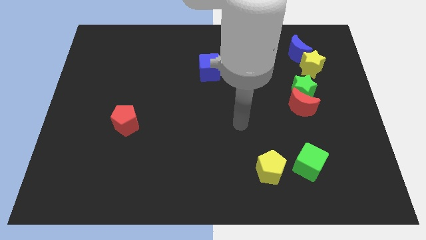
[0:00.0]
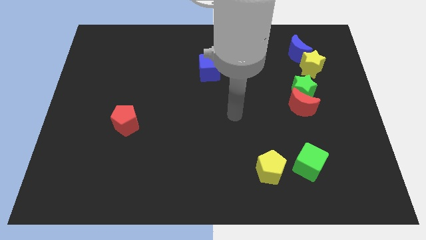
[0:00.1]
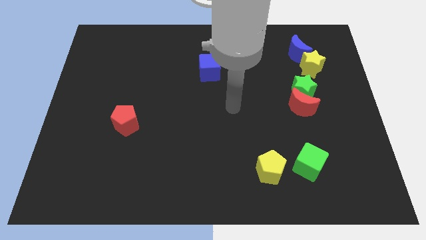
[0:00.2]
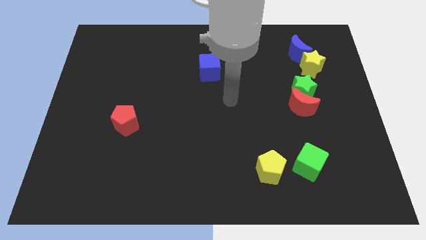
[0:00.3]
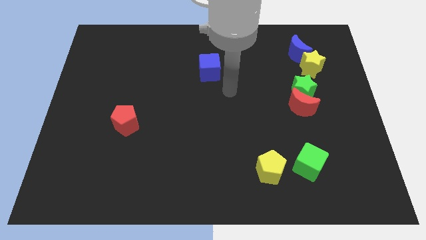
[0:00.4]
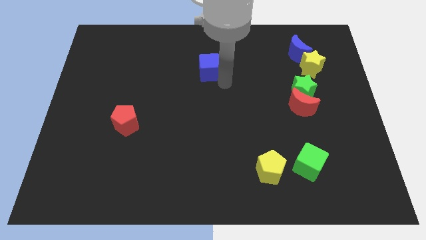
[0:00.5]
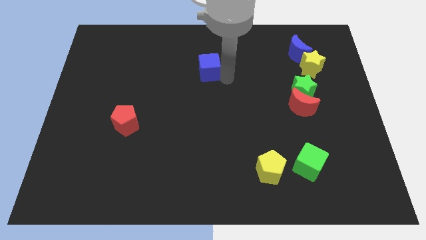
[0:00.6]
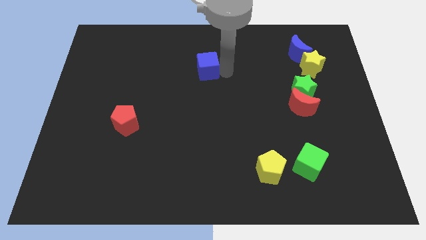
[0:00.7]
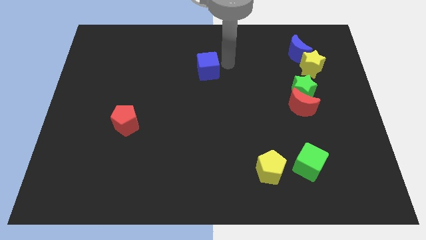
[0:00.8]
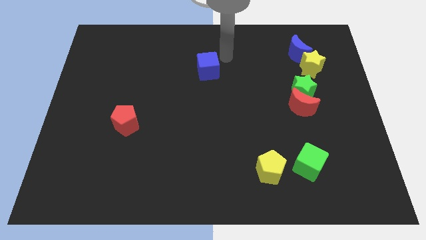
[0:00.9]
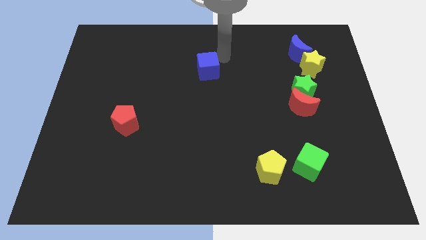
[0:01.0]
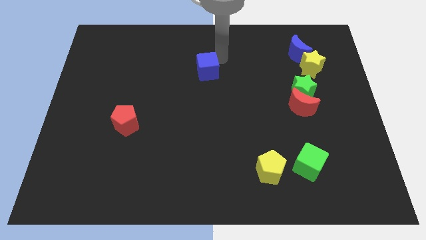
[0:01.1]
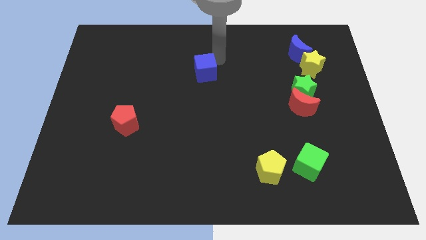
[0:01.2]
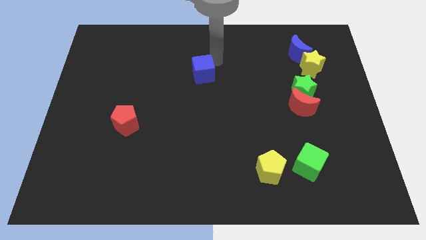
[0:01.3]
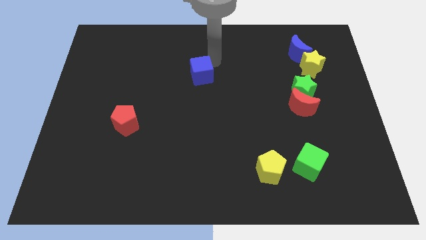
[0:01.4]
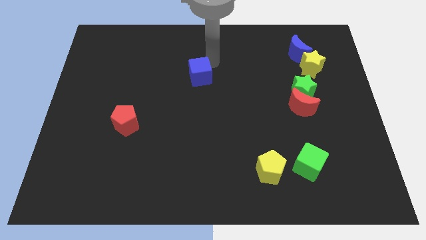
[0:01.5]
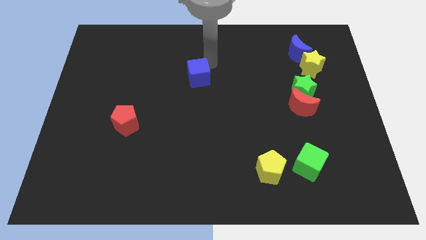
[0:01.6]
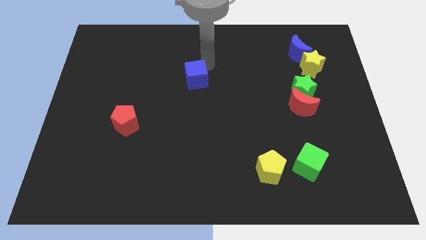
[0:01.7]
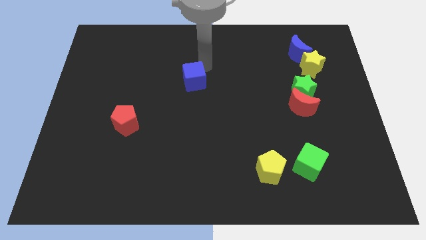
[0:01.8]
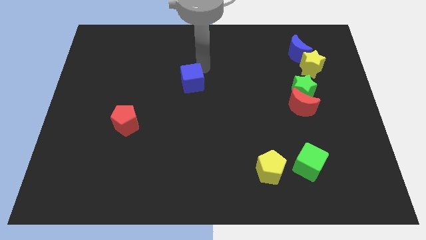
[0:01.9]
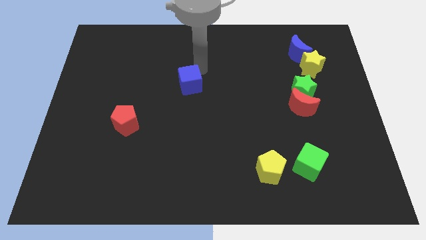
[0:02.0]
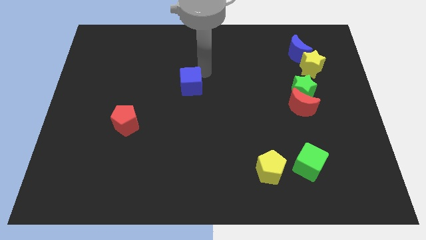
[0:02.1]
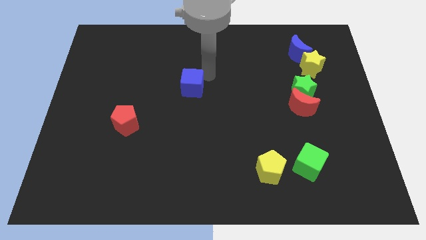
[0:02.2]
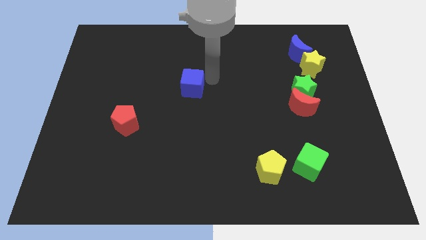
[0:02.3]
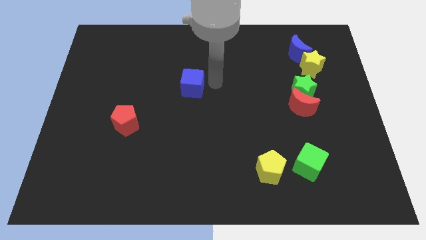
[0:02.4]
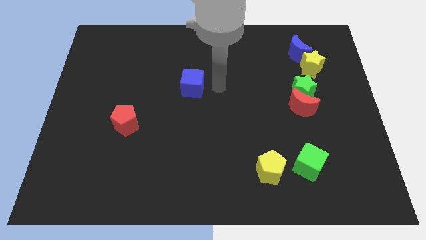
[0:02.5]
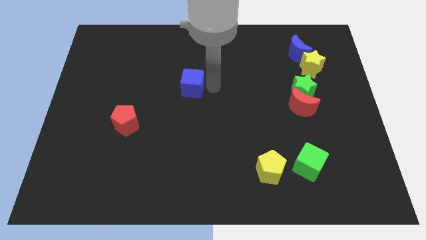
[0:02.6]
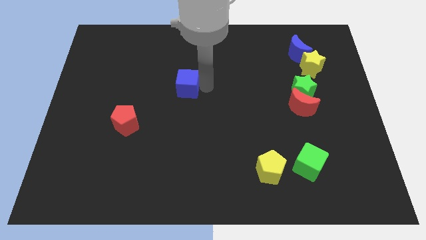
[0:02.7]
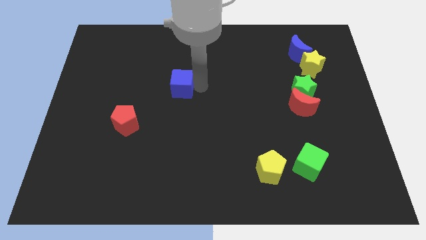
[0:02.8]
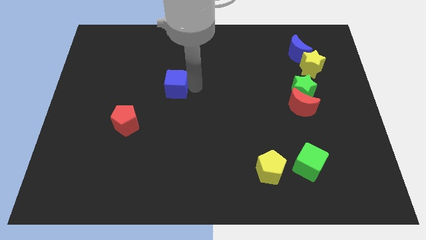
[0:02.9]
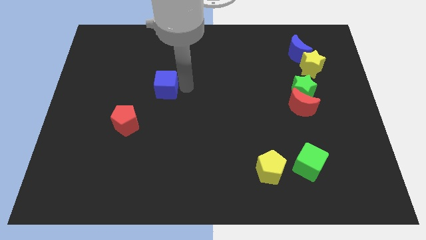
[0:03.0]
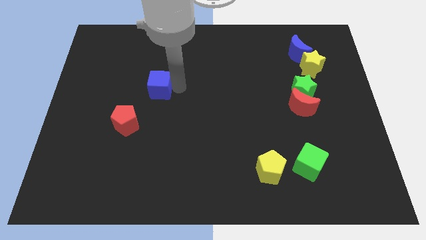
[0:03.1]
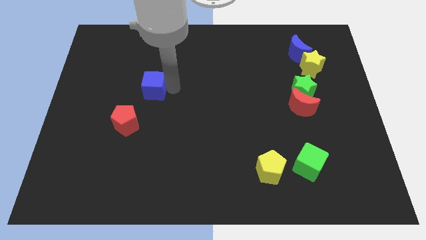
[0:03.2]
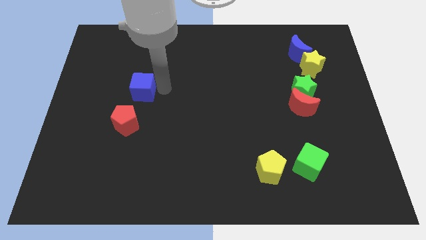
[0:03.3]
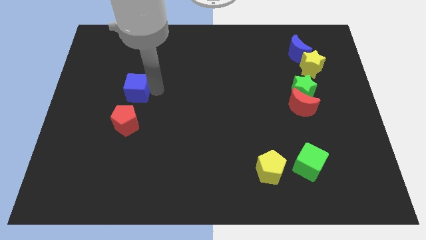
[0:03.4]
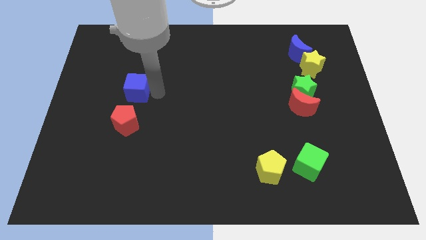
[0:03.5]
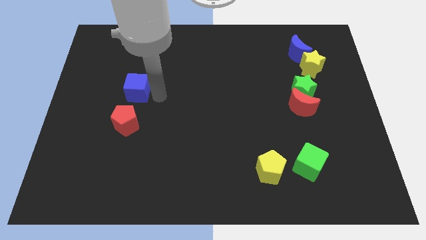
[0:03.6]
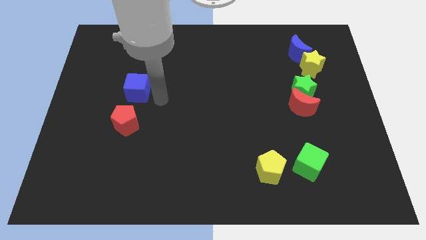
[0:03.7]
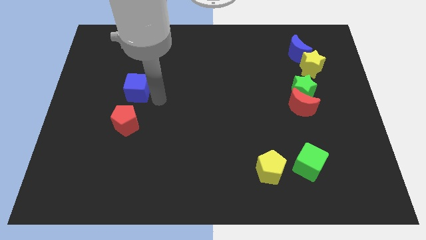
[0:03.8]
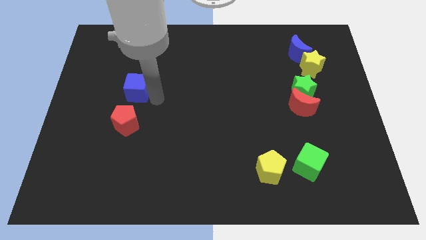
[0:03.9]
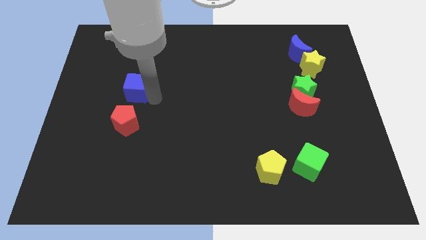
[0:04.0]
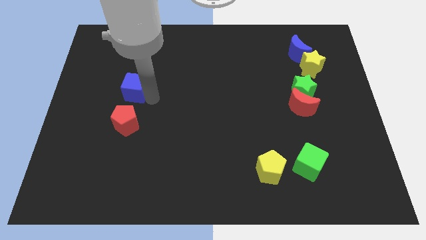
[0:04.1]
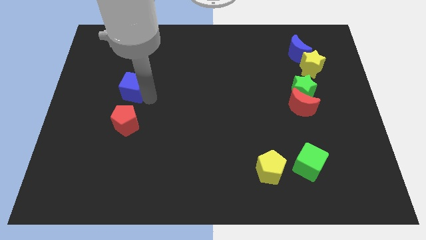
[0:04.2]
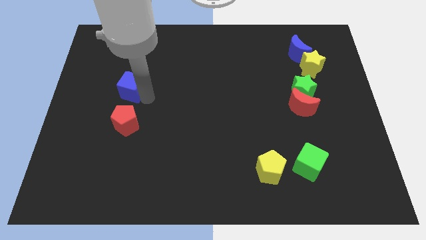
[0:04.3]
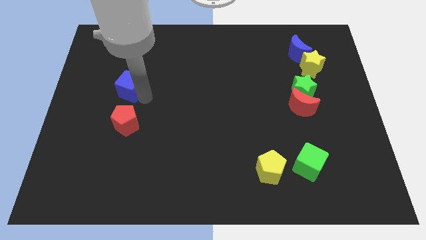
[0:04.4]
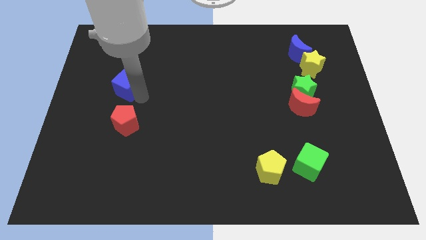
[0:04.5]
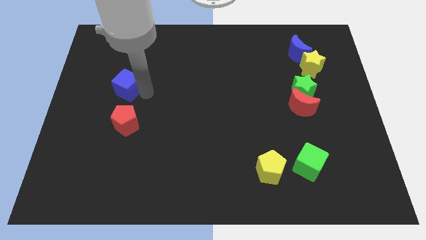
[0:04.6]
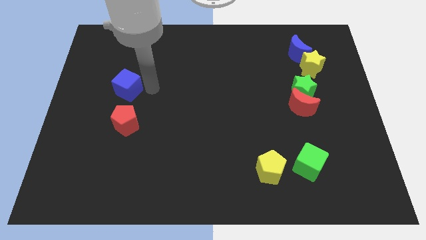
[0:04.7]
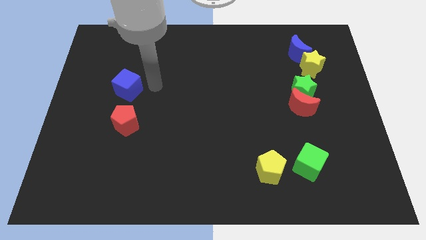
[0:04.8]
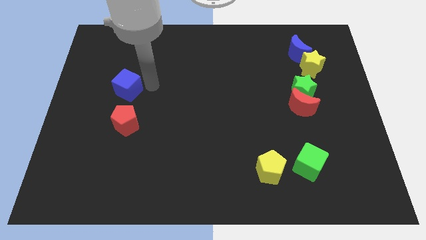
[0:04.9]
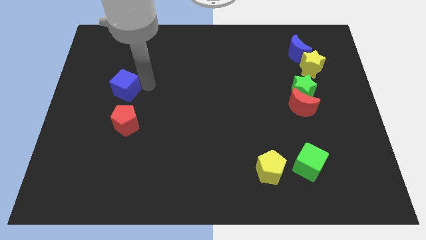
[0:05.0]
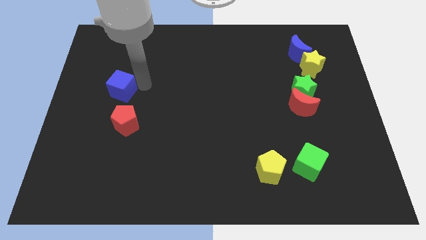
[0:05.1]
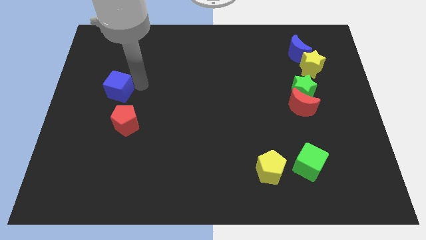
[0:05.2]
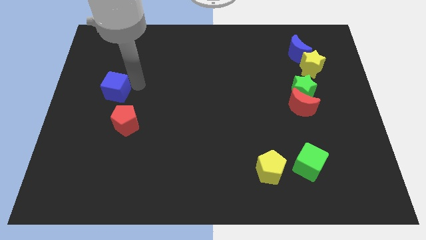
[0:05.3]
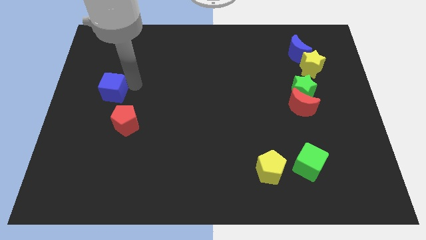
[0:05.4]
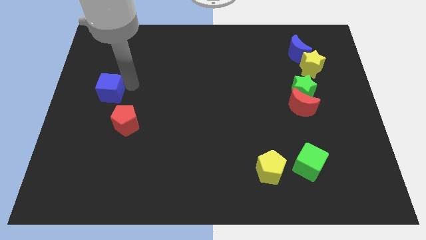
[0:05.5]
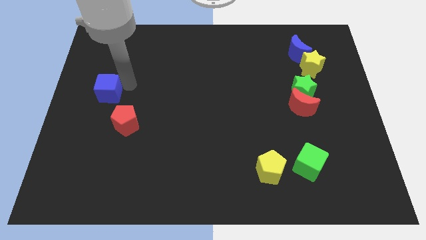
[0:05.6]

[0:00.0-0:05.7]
slide the blue cube to the center left

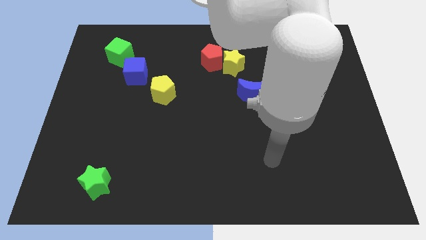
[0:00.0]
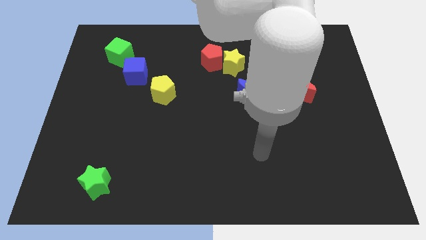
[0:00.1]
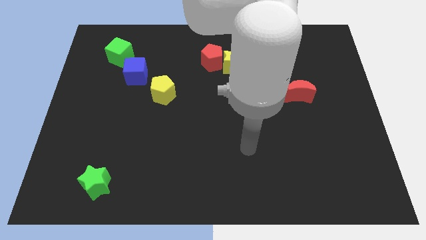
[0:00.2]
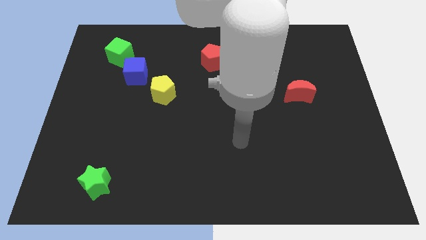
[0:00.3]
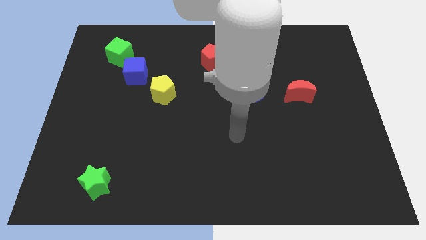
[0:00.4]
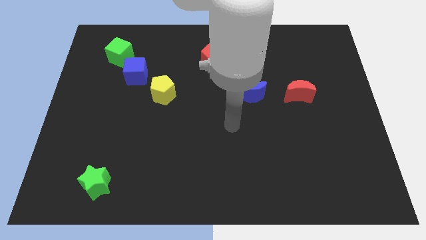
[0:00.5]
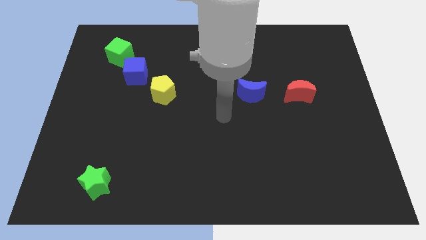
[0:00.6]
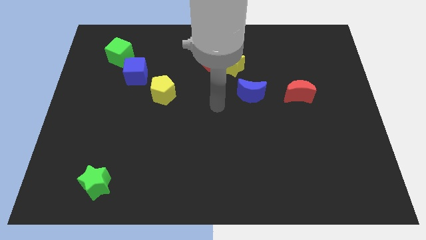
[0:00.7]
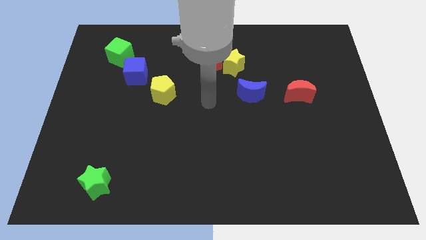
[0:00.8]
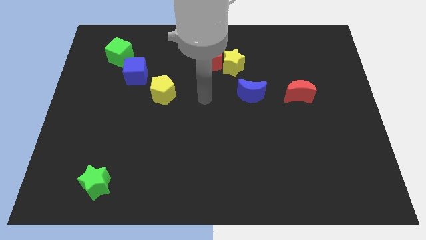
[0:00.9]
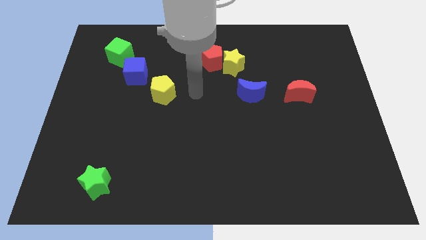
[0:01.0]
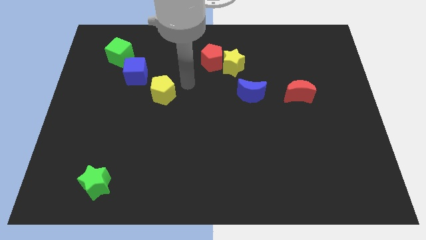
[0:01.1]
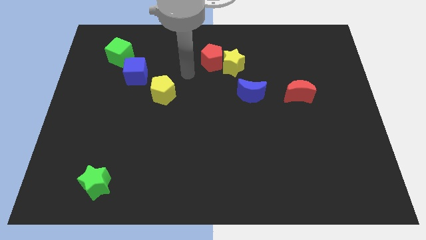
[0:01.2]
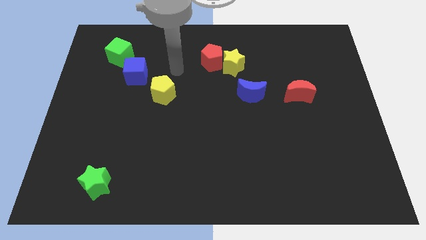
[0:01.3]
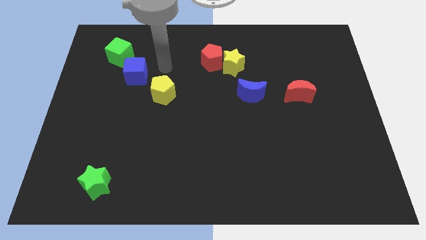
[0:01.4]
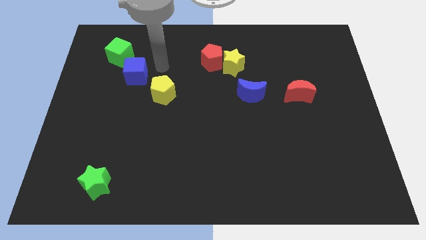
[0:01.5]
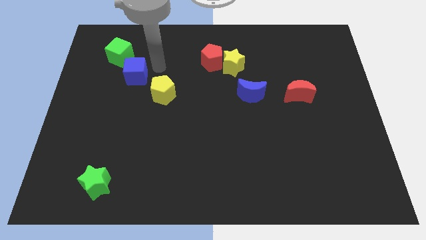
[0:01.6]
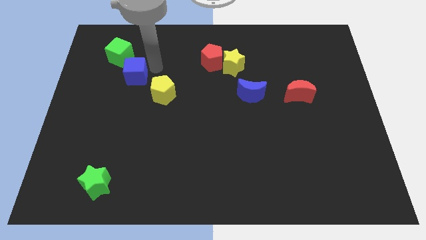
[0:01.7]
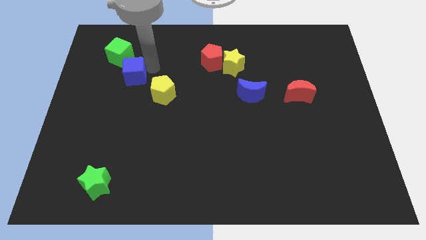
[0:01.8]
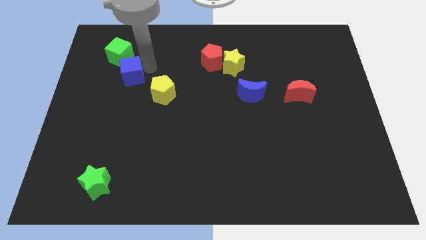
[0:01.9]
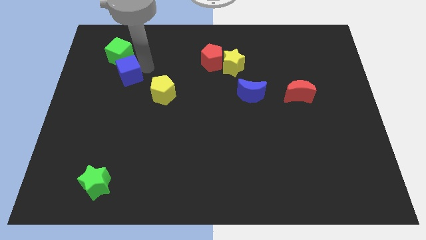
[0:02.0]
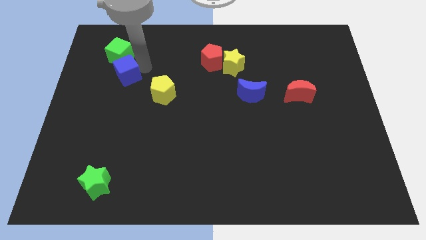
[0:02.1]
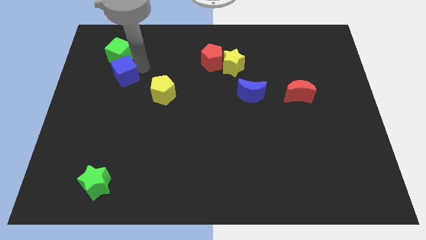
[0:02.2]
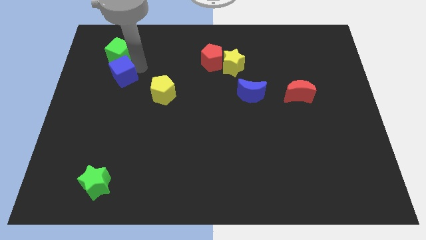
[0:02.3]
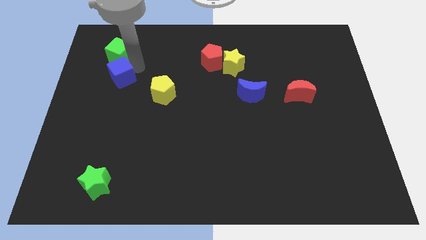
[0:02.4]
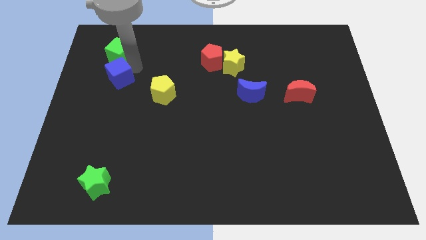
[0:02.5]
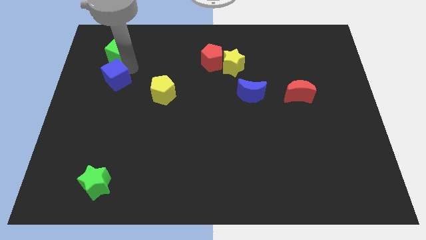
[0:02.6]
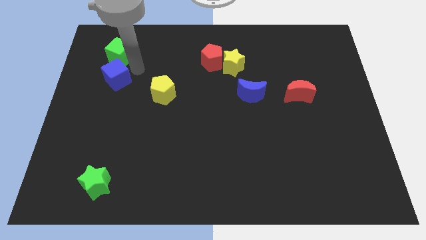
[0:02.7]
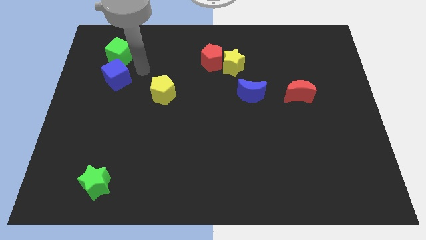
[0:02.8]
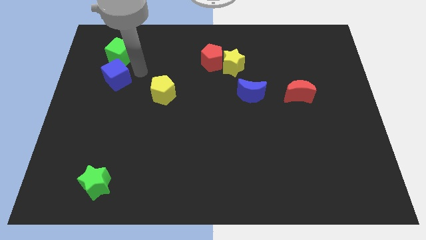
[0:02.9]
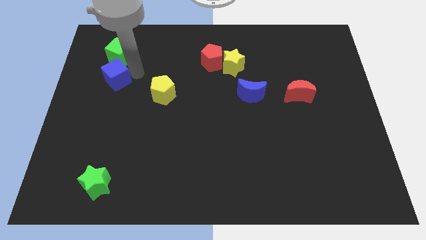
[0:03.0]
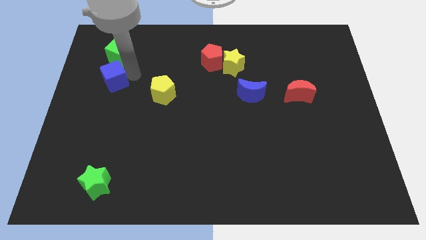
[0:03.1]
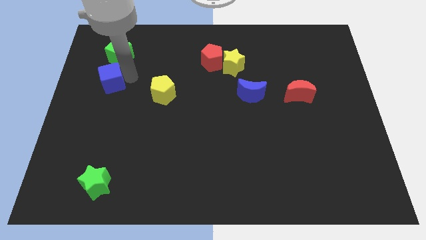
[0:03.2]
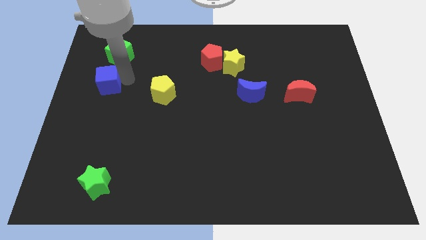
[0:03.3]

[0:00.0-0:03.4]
slide the blue cube to the left side of the board
